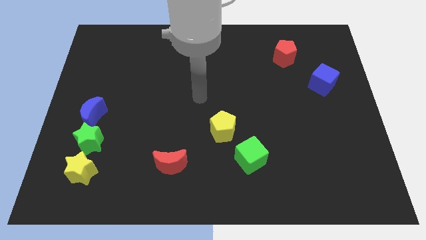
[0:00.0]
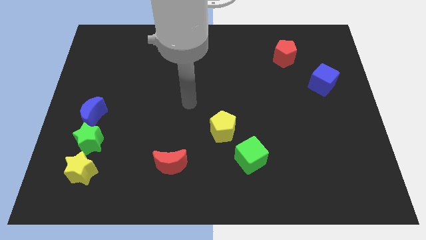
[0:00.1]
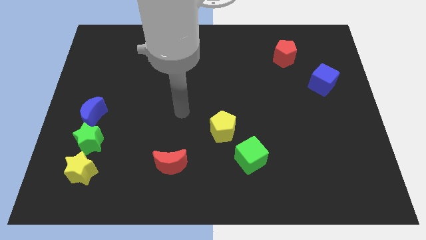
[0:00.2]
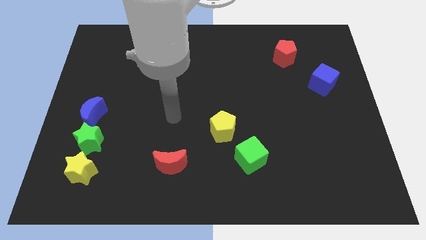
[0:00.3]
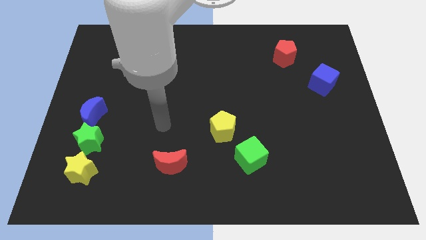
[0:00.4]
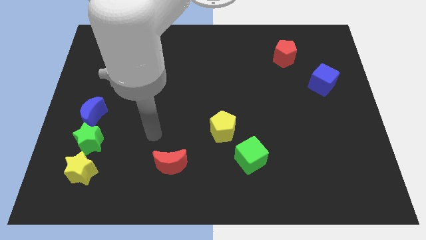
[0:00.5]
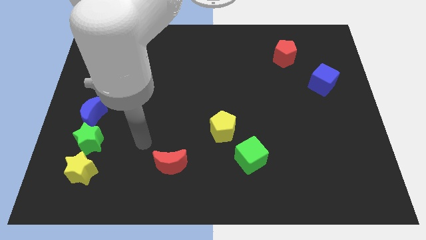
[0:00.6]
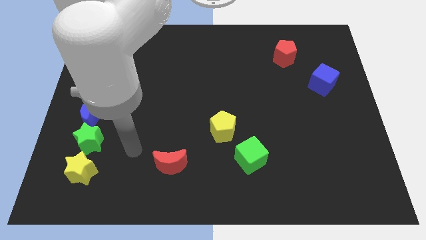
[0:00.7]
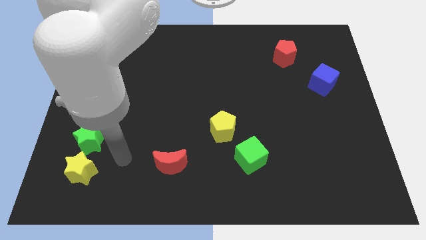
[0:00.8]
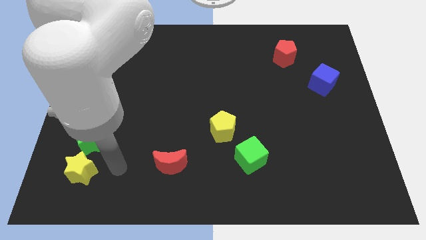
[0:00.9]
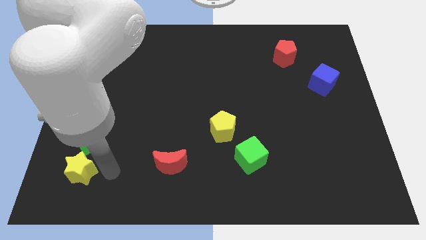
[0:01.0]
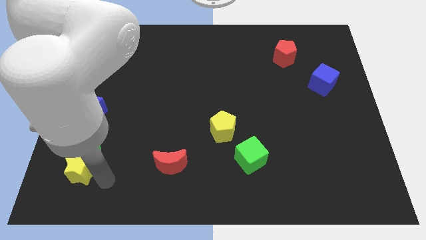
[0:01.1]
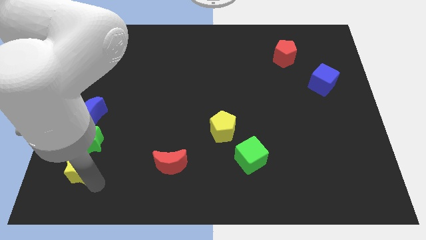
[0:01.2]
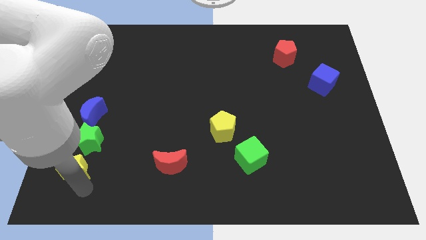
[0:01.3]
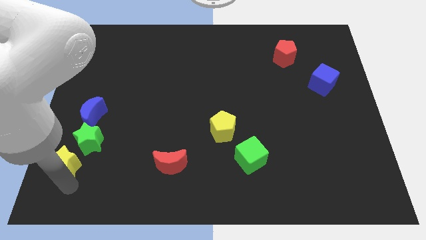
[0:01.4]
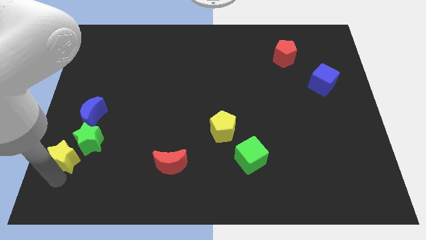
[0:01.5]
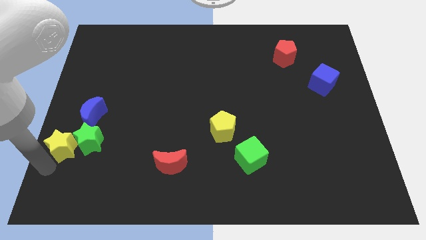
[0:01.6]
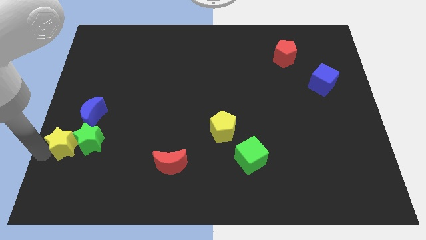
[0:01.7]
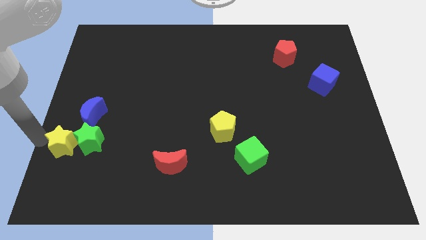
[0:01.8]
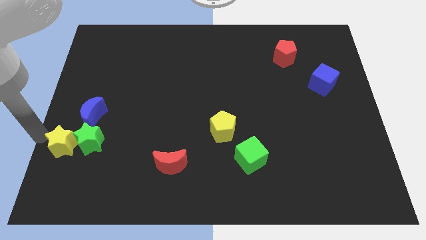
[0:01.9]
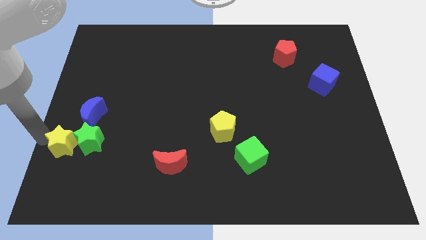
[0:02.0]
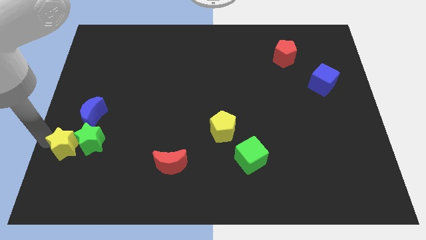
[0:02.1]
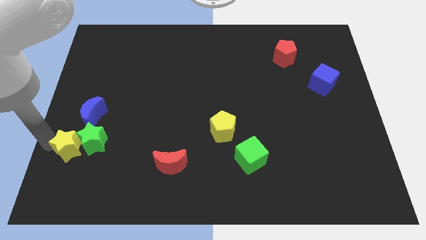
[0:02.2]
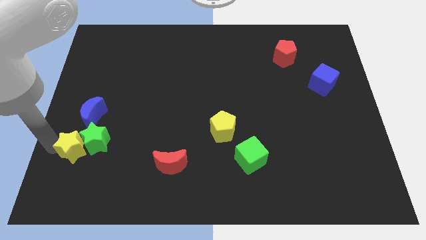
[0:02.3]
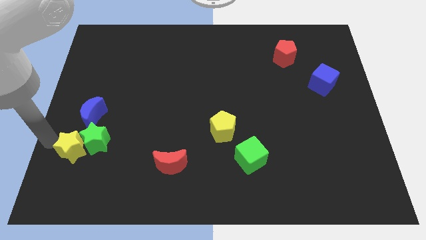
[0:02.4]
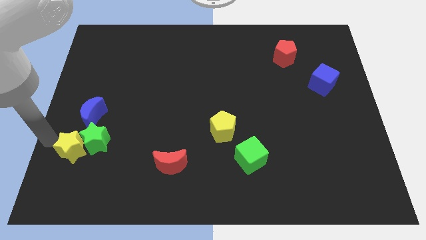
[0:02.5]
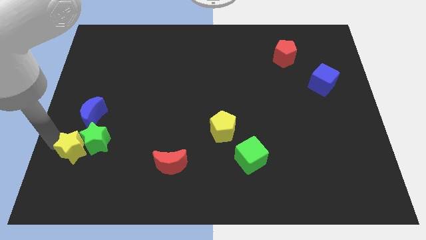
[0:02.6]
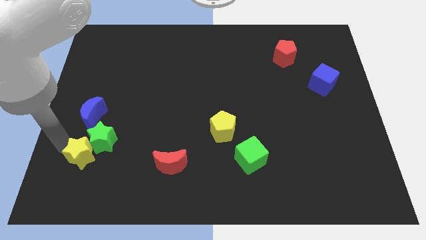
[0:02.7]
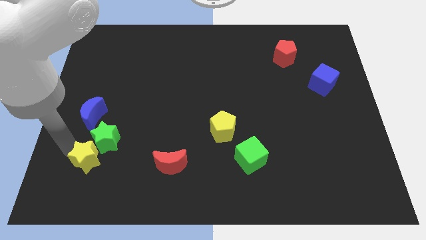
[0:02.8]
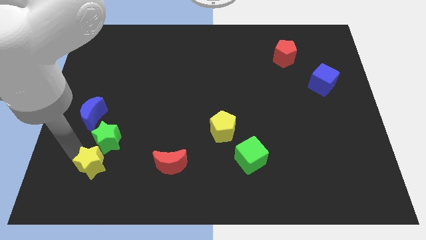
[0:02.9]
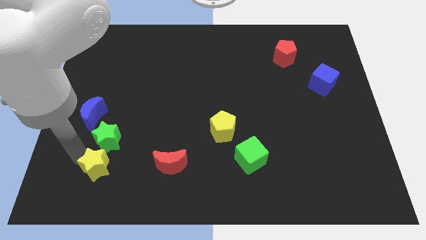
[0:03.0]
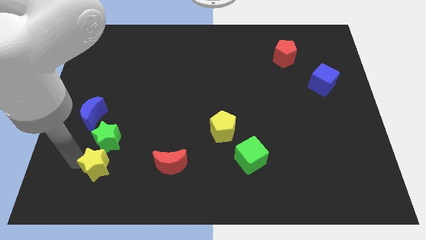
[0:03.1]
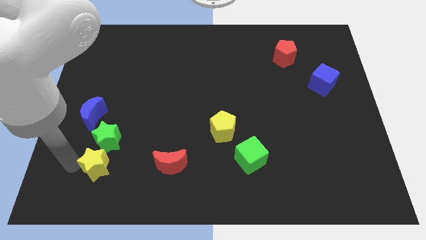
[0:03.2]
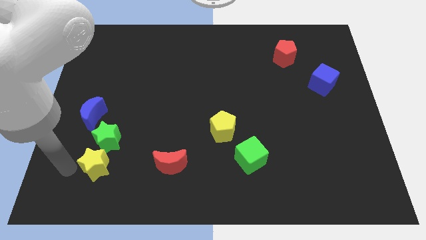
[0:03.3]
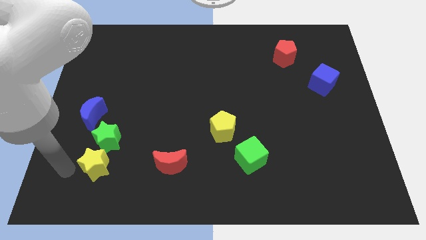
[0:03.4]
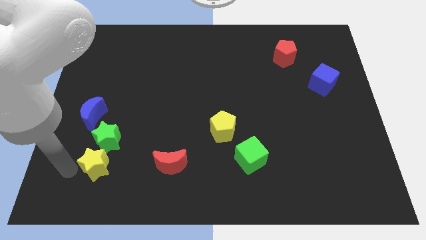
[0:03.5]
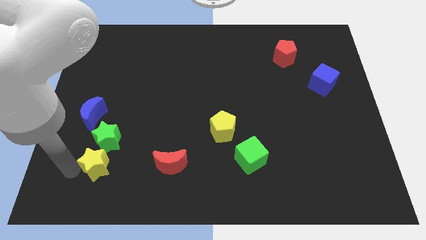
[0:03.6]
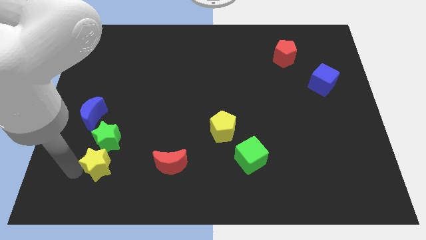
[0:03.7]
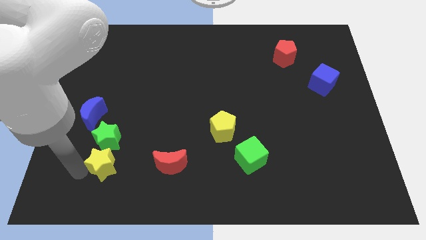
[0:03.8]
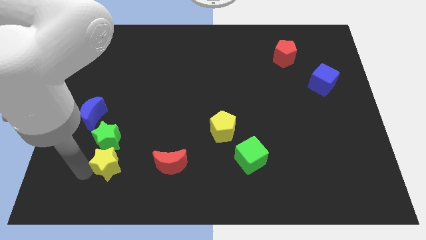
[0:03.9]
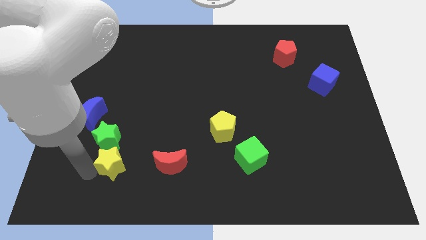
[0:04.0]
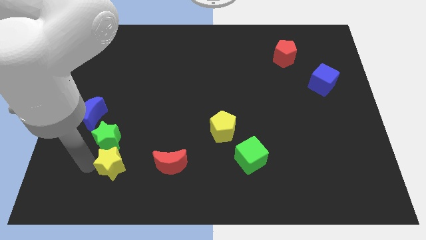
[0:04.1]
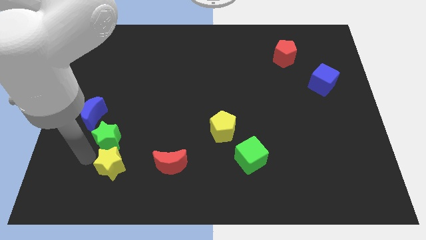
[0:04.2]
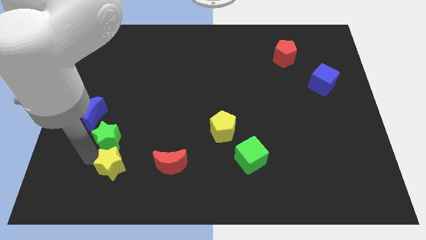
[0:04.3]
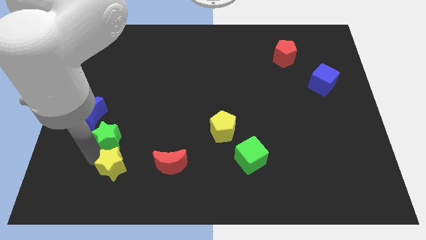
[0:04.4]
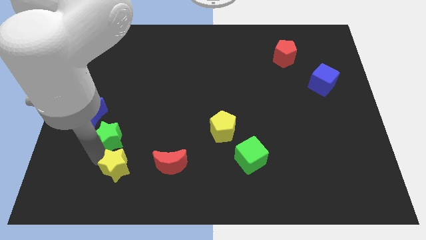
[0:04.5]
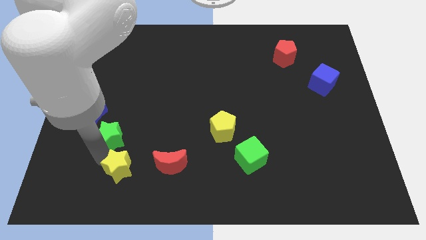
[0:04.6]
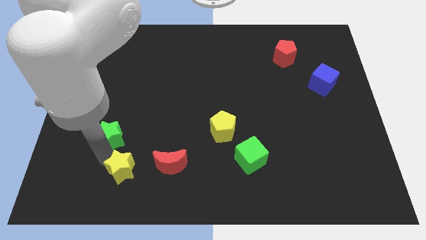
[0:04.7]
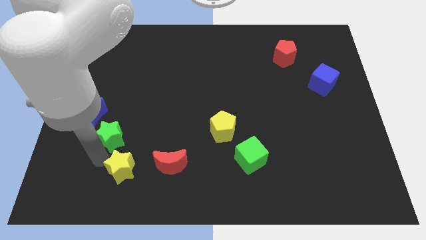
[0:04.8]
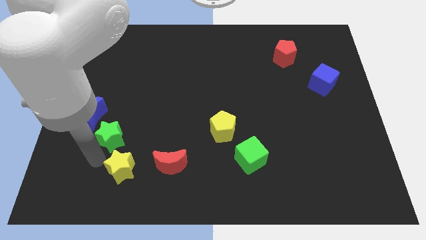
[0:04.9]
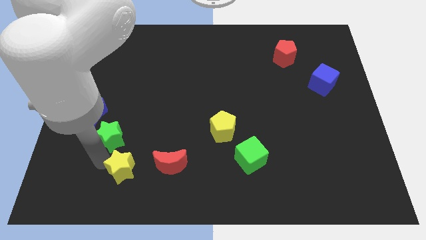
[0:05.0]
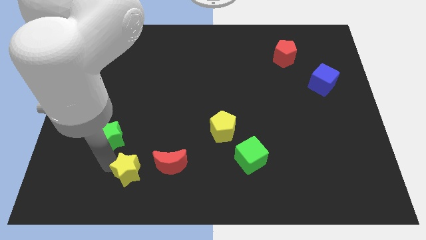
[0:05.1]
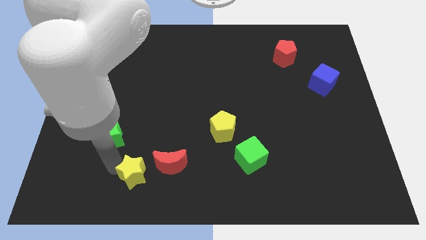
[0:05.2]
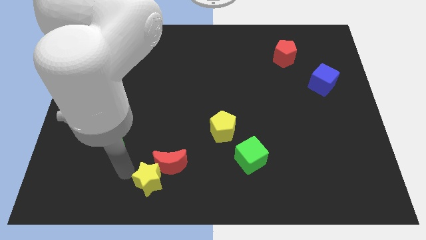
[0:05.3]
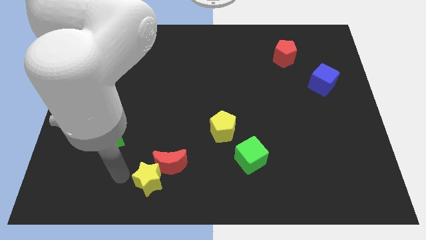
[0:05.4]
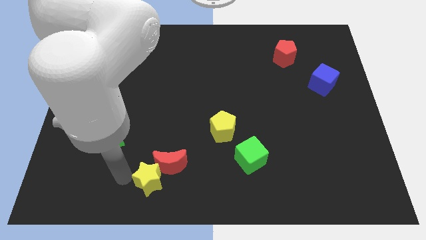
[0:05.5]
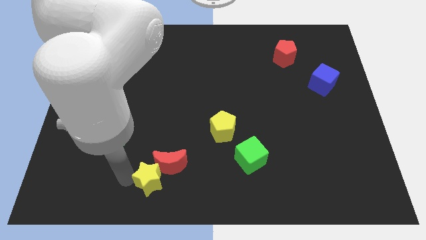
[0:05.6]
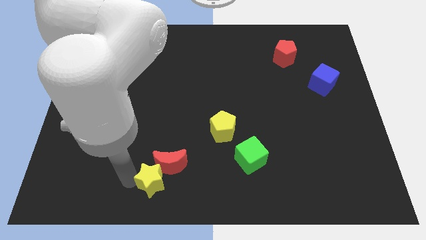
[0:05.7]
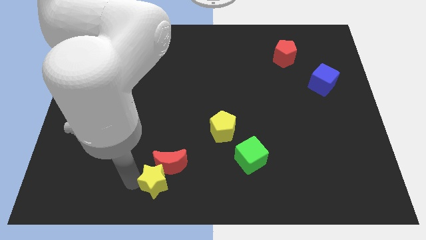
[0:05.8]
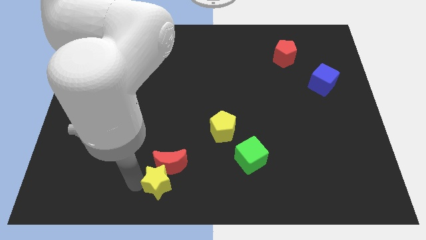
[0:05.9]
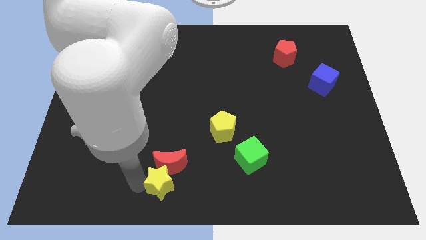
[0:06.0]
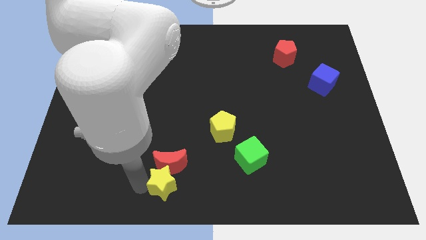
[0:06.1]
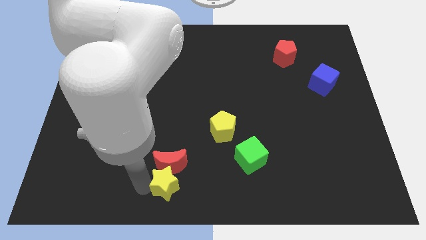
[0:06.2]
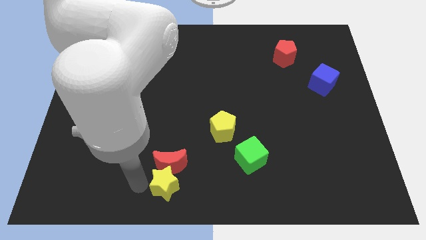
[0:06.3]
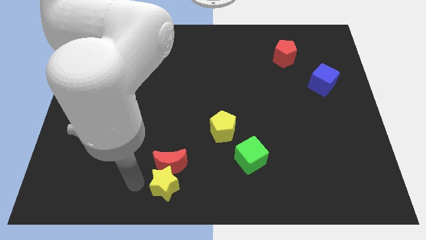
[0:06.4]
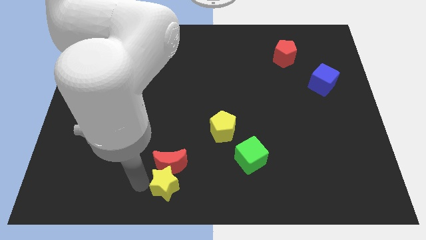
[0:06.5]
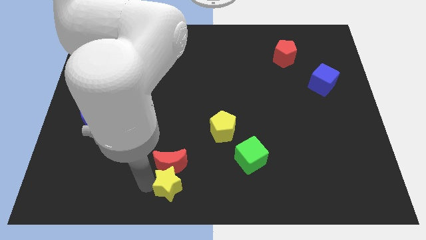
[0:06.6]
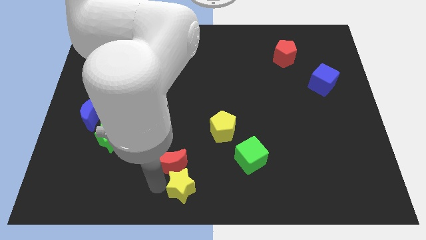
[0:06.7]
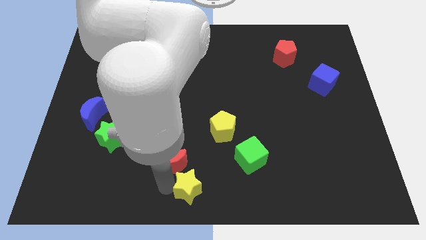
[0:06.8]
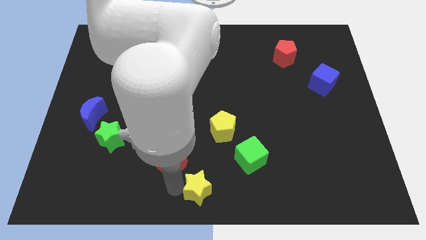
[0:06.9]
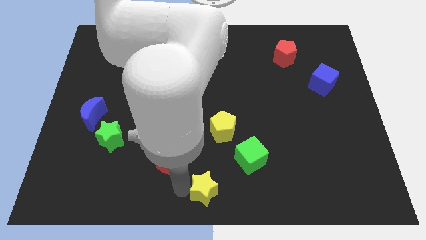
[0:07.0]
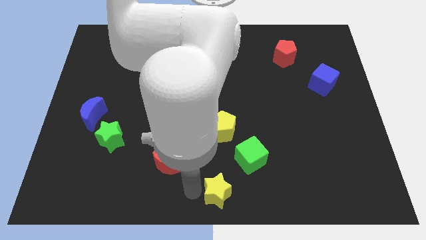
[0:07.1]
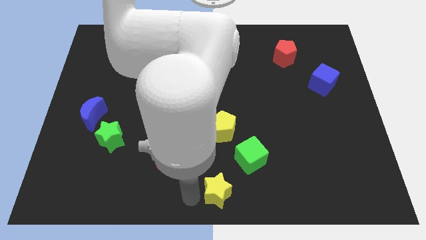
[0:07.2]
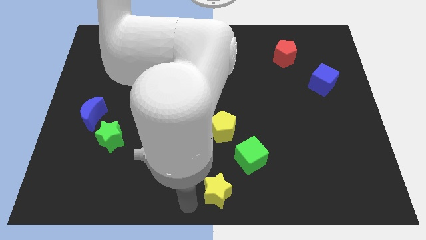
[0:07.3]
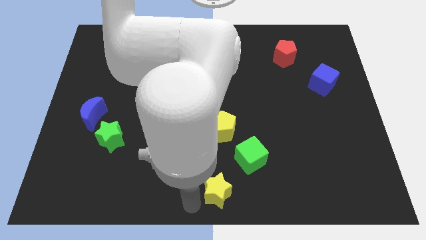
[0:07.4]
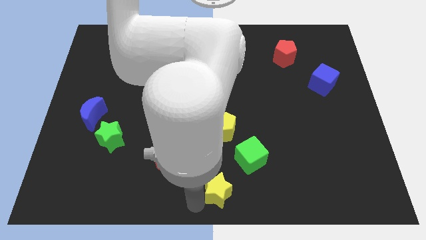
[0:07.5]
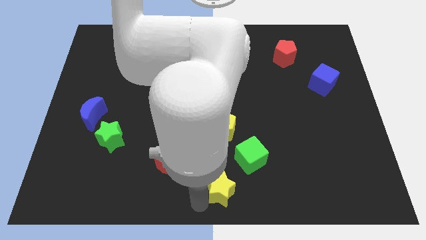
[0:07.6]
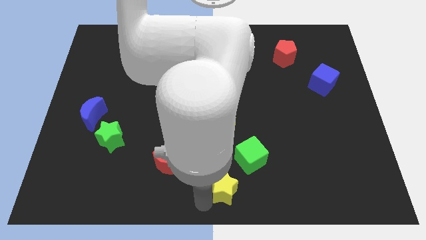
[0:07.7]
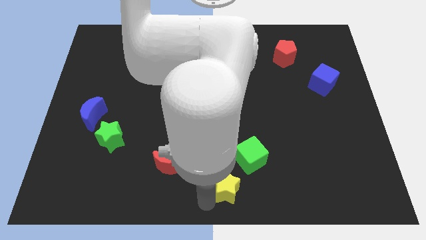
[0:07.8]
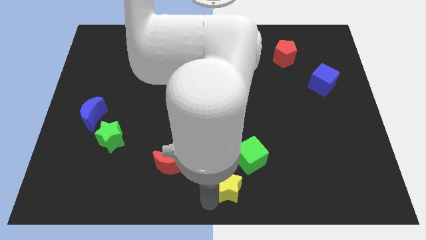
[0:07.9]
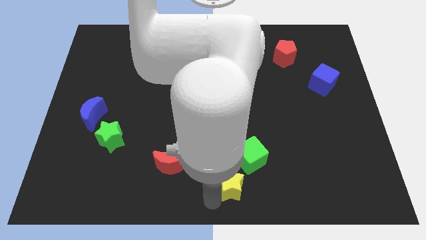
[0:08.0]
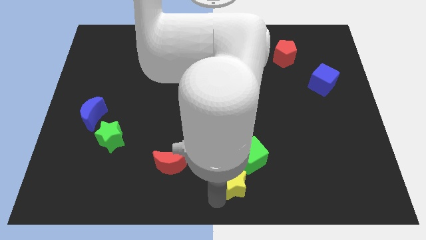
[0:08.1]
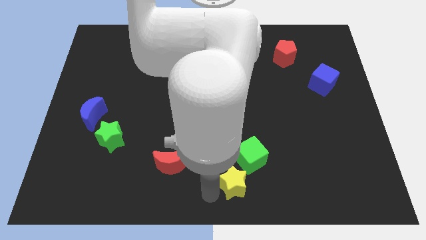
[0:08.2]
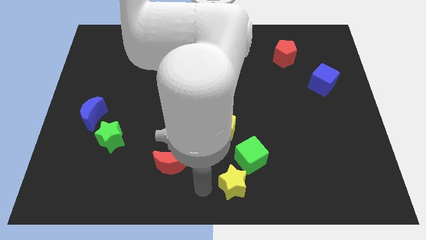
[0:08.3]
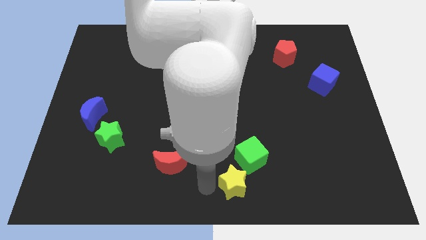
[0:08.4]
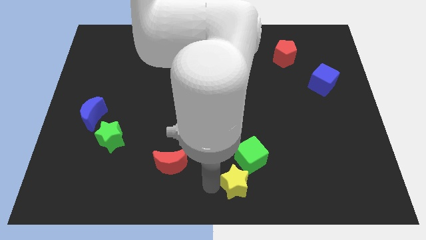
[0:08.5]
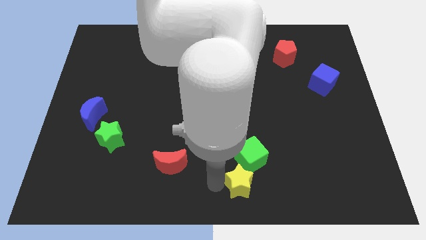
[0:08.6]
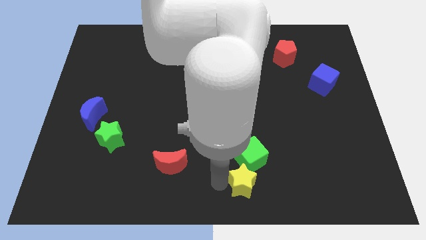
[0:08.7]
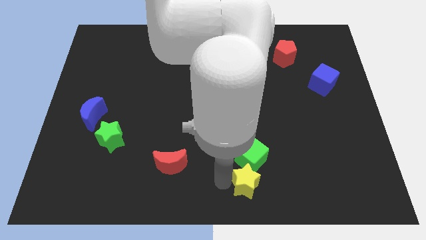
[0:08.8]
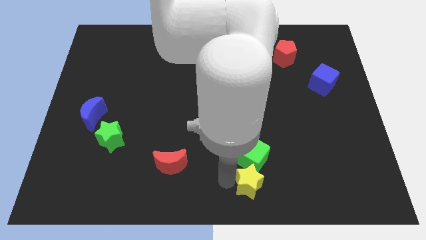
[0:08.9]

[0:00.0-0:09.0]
move the yellow star diagonally down and to the right of the green cube
